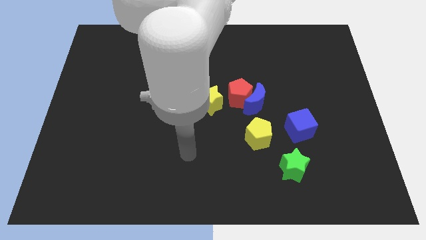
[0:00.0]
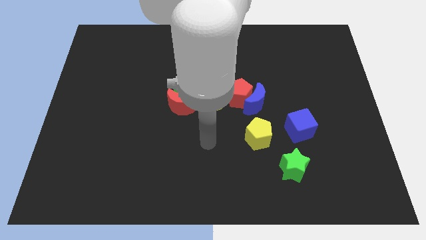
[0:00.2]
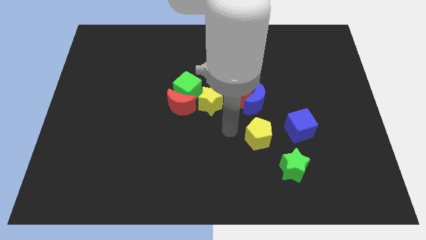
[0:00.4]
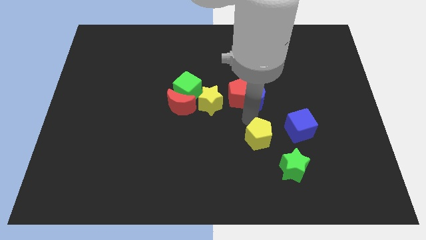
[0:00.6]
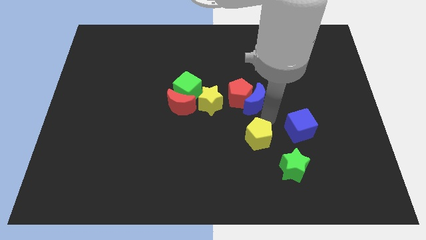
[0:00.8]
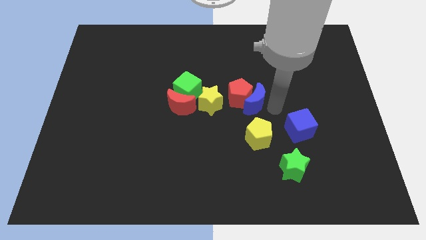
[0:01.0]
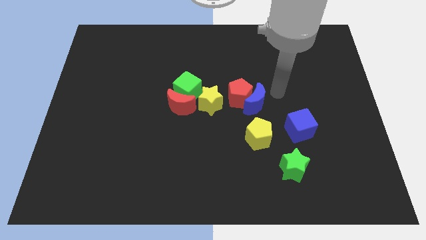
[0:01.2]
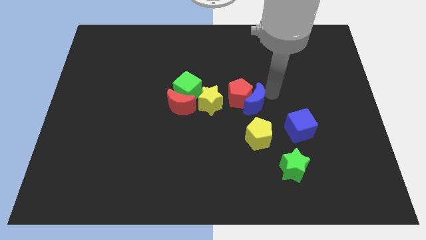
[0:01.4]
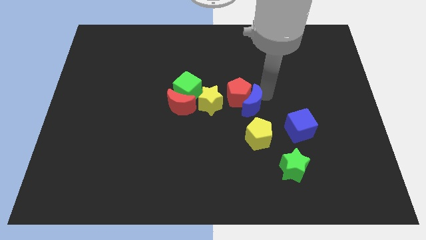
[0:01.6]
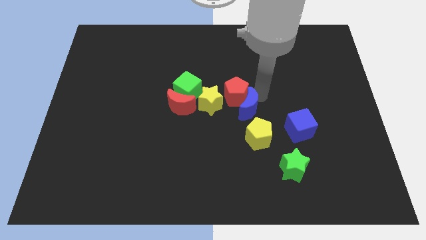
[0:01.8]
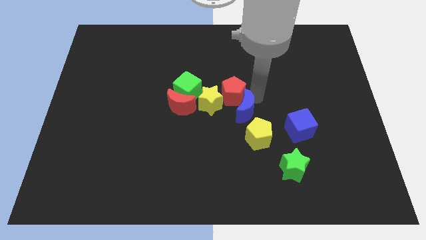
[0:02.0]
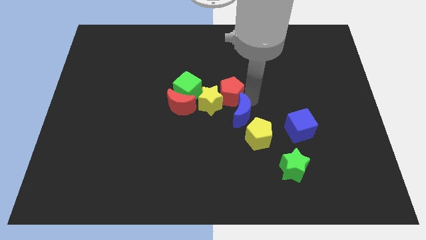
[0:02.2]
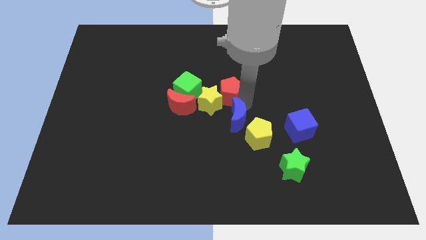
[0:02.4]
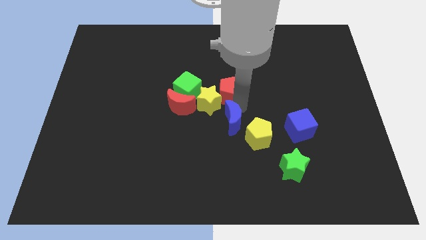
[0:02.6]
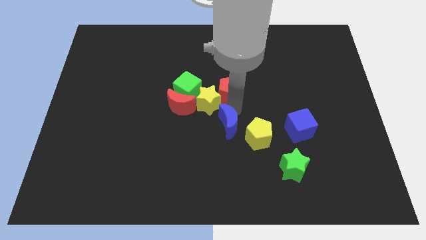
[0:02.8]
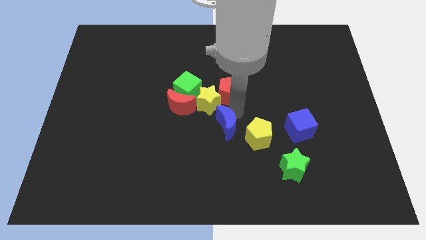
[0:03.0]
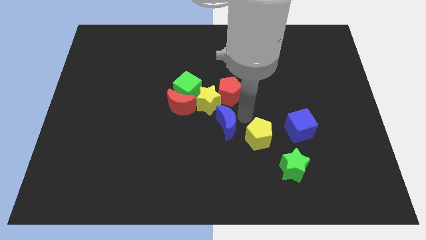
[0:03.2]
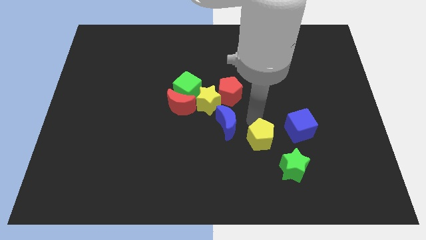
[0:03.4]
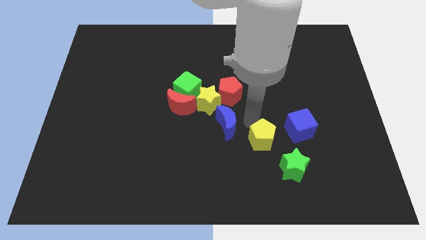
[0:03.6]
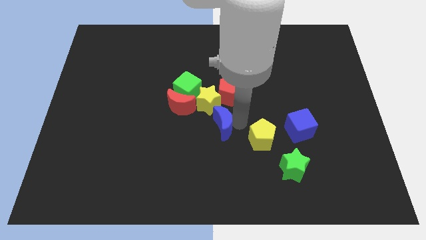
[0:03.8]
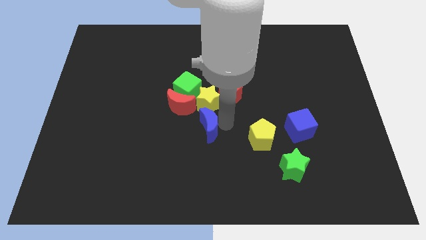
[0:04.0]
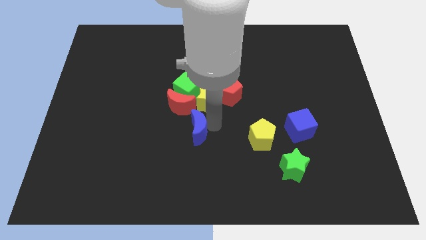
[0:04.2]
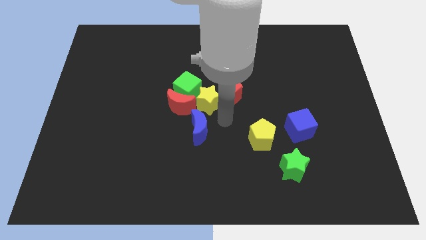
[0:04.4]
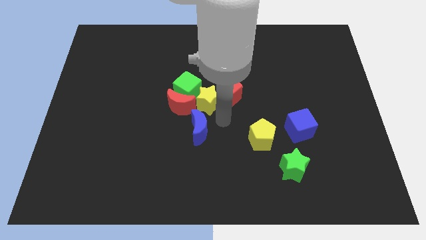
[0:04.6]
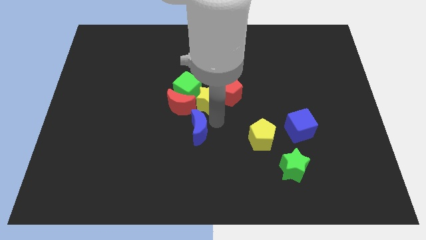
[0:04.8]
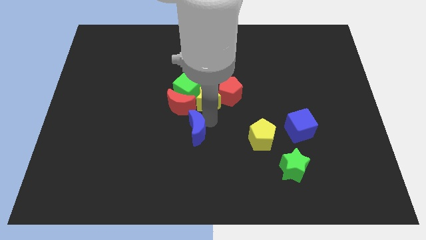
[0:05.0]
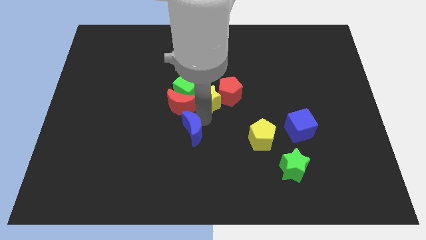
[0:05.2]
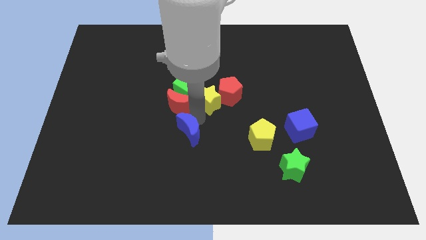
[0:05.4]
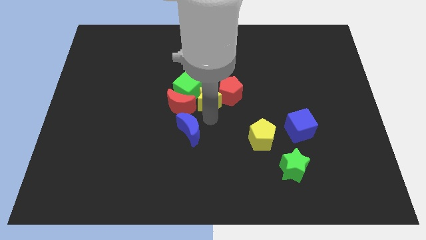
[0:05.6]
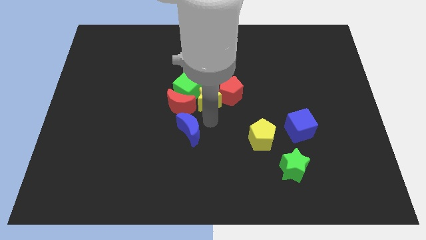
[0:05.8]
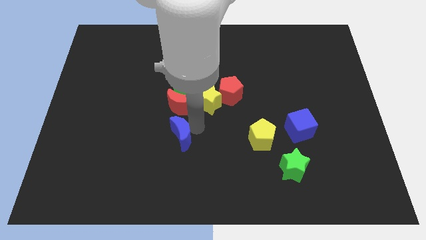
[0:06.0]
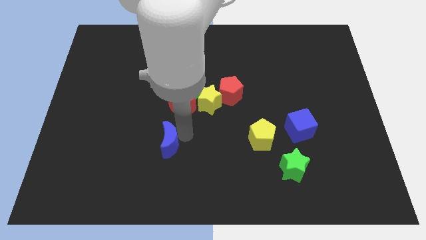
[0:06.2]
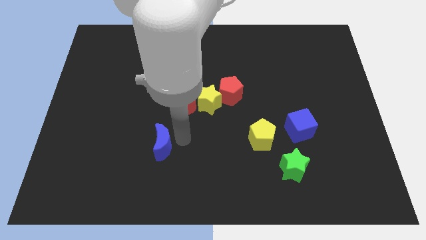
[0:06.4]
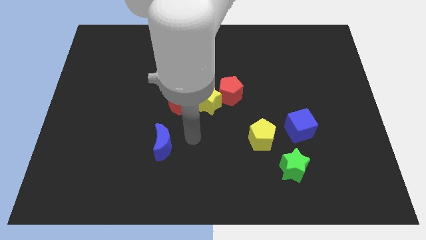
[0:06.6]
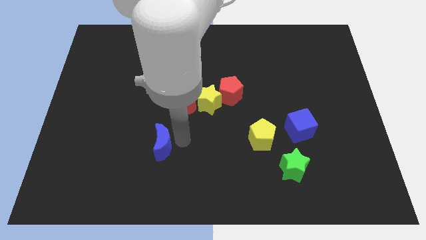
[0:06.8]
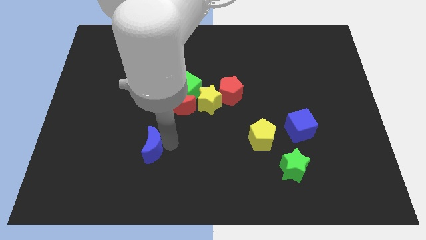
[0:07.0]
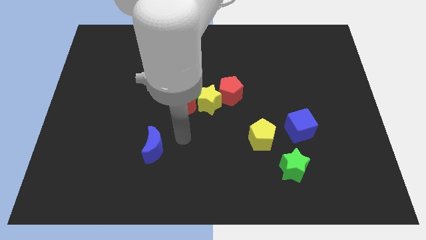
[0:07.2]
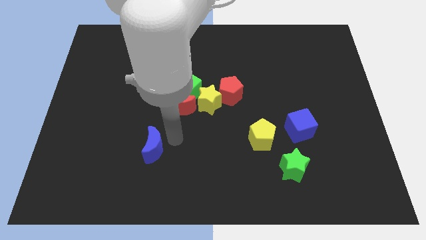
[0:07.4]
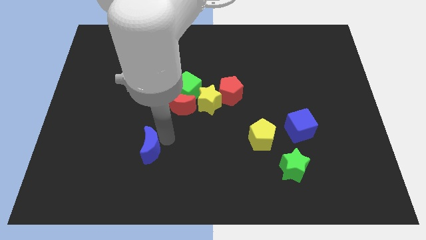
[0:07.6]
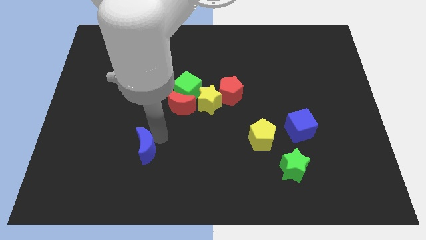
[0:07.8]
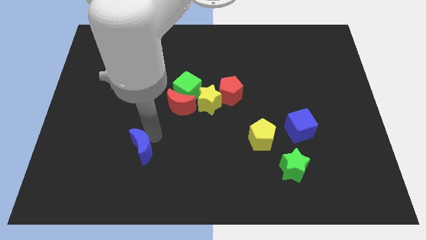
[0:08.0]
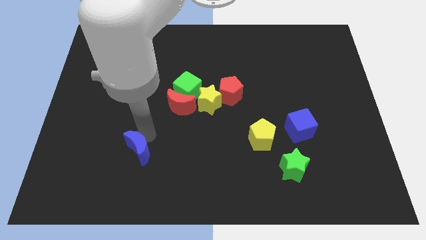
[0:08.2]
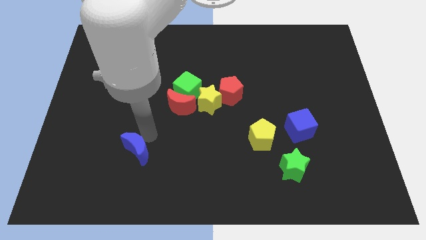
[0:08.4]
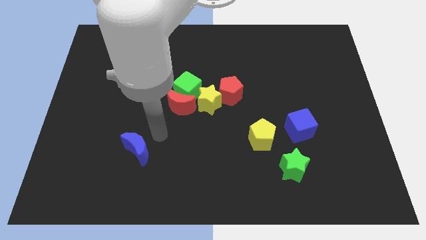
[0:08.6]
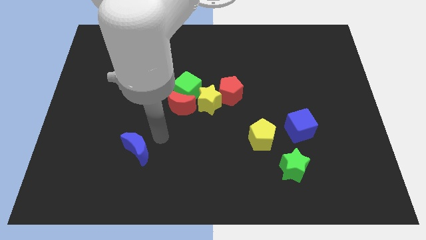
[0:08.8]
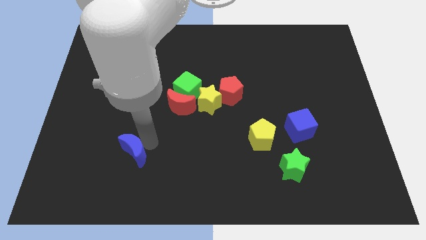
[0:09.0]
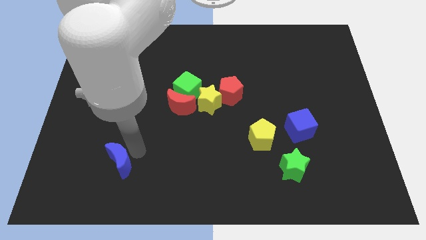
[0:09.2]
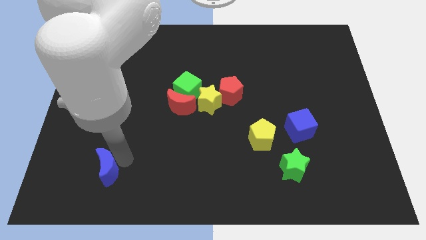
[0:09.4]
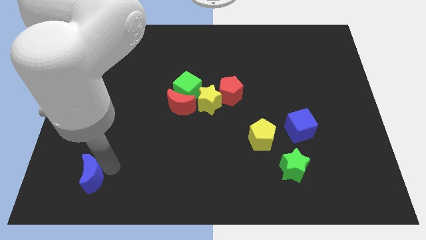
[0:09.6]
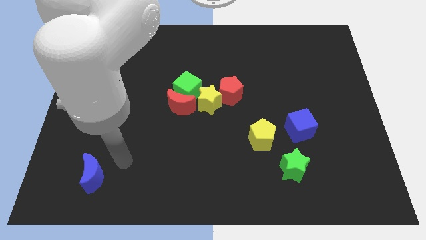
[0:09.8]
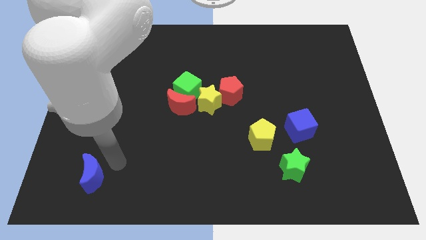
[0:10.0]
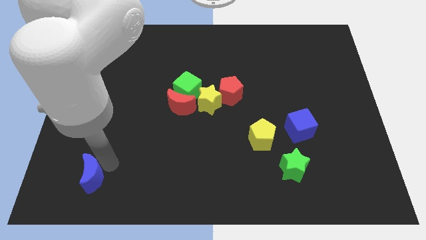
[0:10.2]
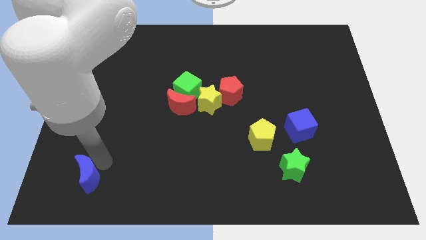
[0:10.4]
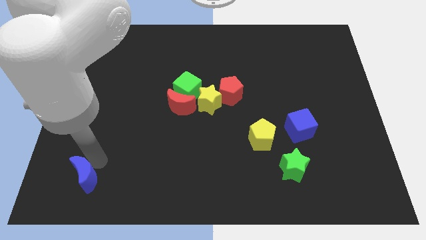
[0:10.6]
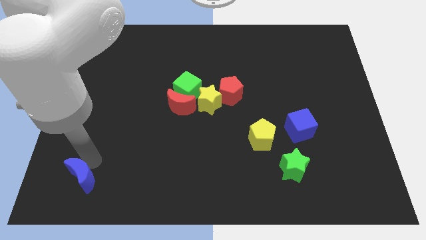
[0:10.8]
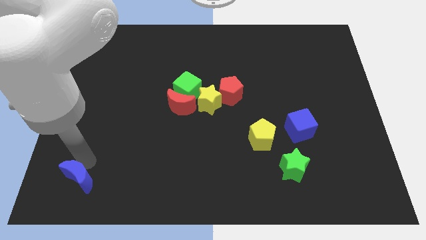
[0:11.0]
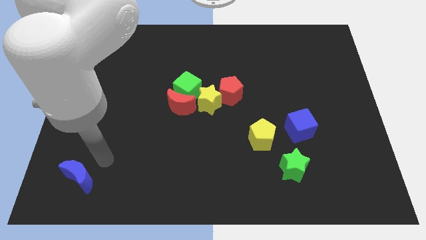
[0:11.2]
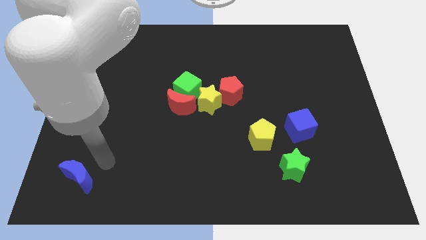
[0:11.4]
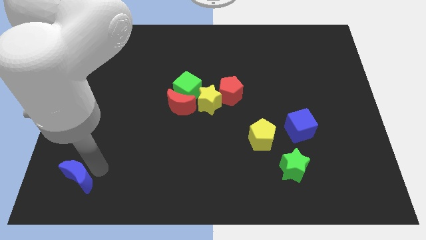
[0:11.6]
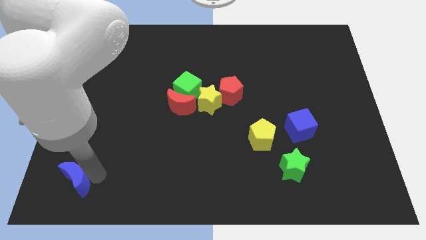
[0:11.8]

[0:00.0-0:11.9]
move the blue moon to the bottom left corner
